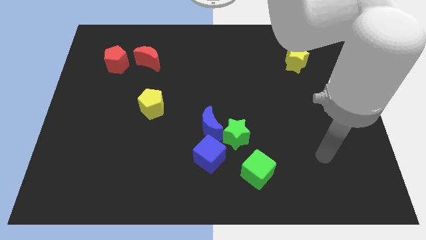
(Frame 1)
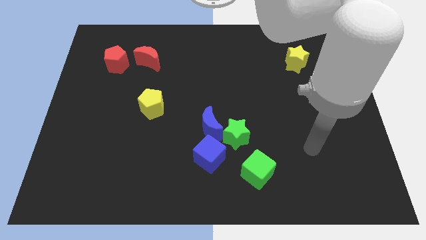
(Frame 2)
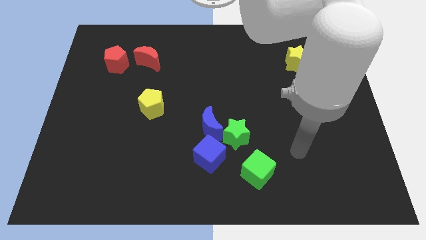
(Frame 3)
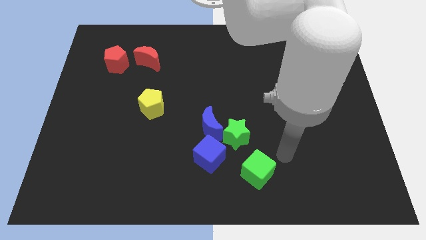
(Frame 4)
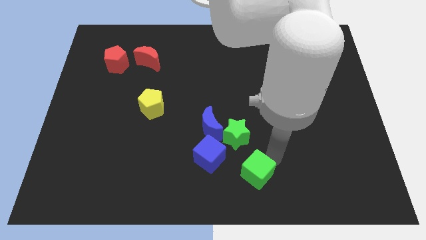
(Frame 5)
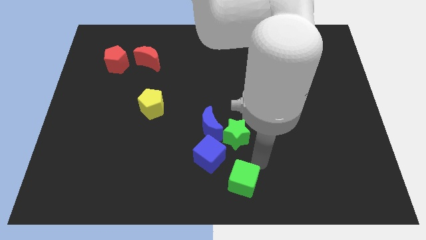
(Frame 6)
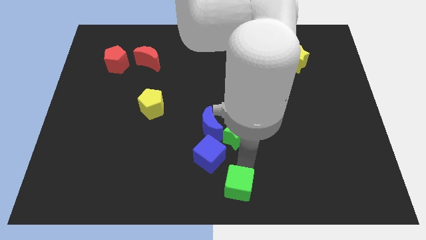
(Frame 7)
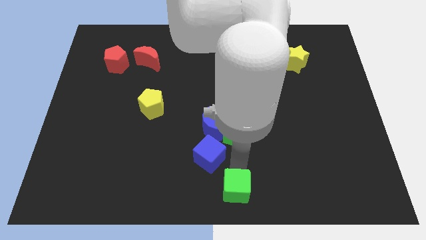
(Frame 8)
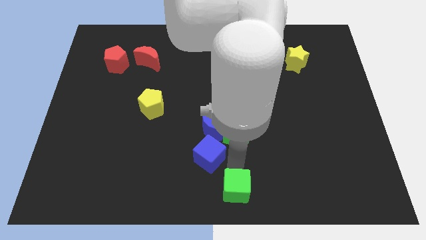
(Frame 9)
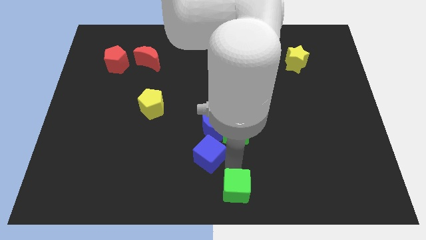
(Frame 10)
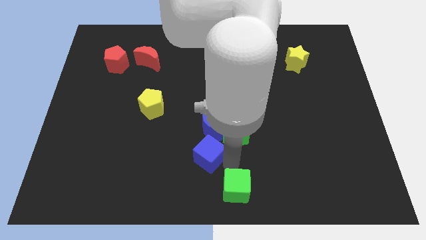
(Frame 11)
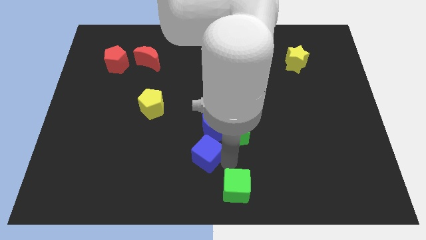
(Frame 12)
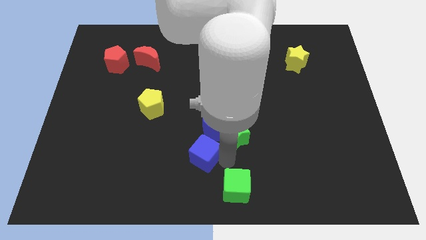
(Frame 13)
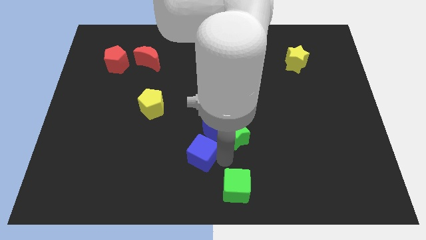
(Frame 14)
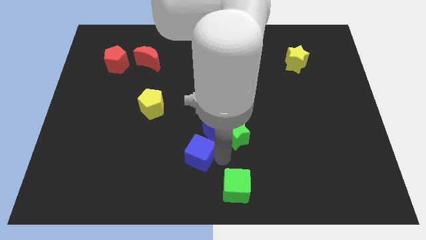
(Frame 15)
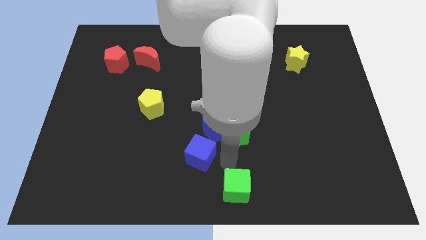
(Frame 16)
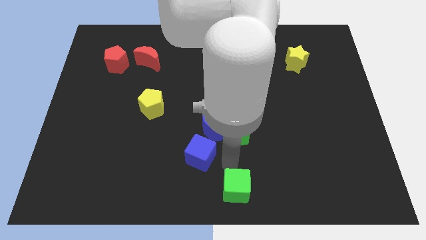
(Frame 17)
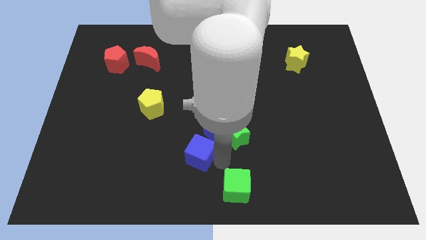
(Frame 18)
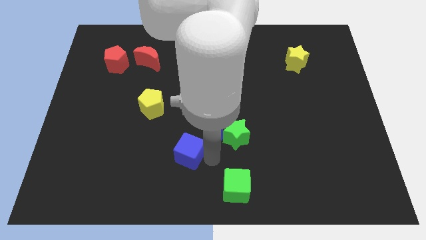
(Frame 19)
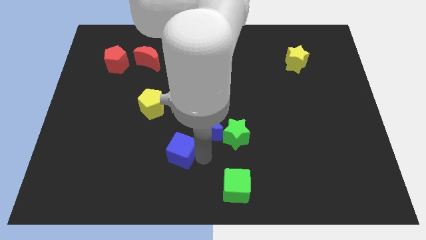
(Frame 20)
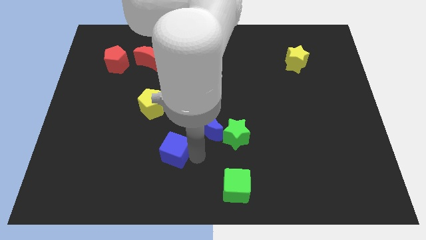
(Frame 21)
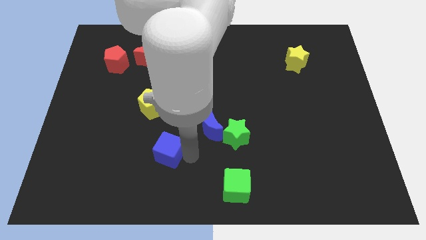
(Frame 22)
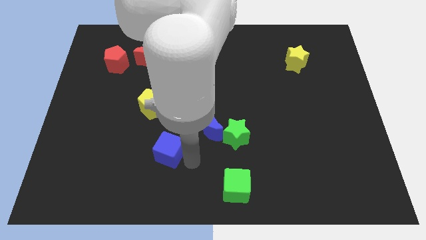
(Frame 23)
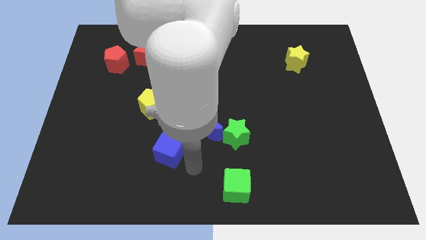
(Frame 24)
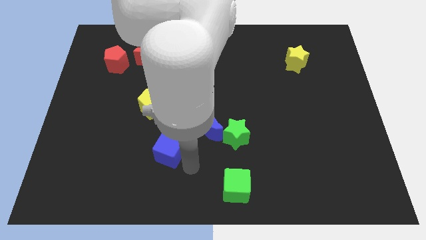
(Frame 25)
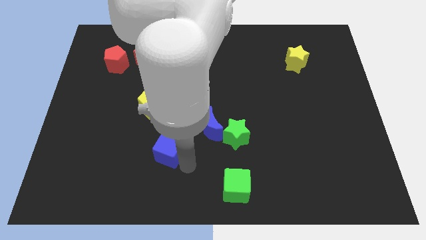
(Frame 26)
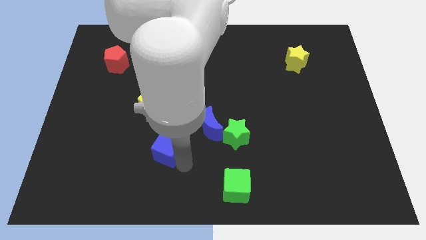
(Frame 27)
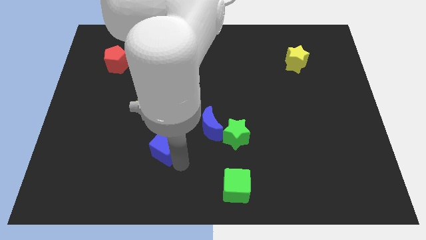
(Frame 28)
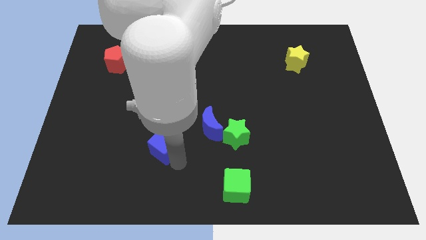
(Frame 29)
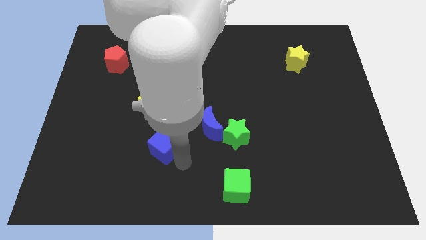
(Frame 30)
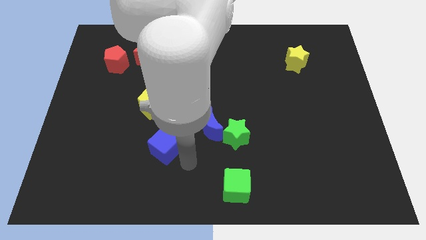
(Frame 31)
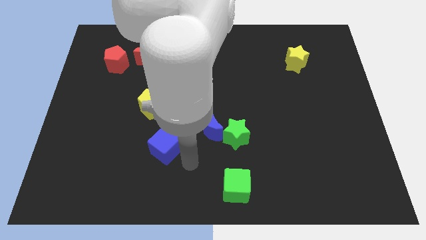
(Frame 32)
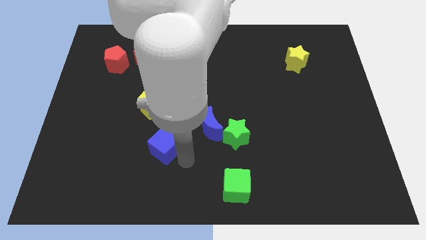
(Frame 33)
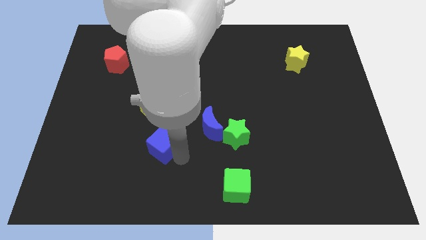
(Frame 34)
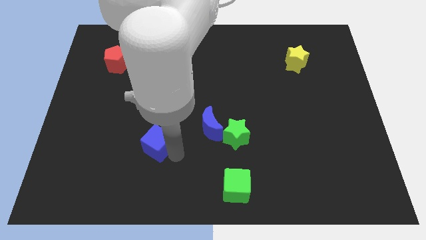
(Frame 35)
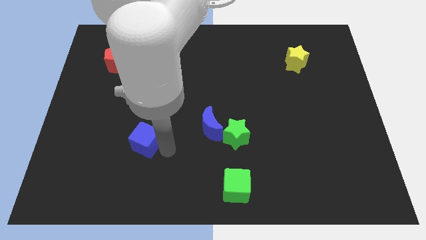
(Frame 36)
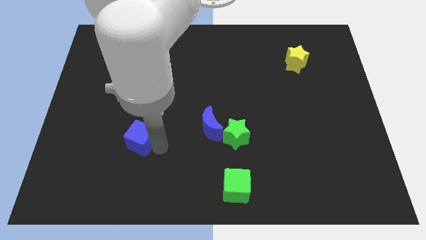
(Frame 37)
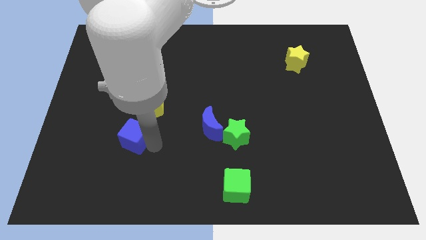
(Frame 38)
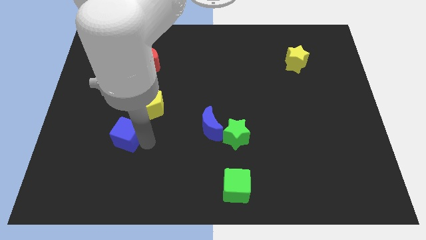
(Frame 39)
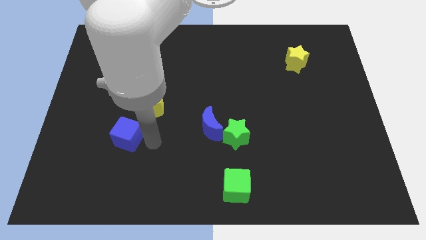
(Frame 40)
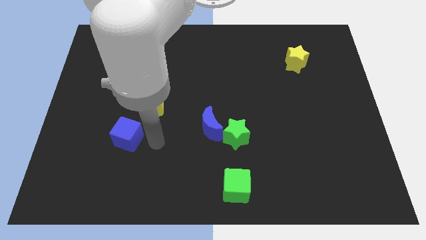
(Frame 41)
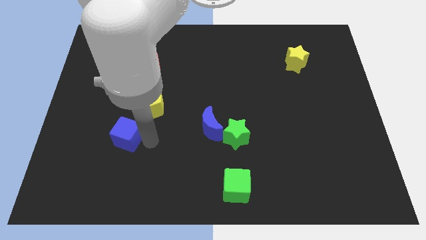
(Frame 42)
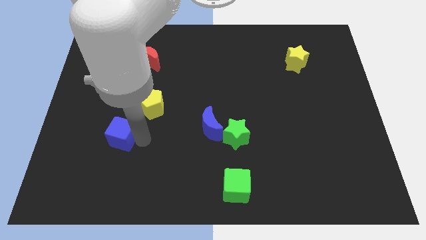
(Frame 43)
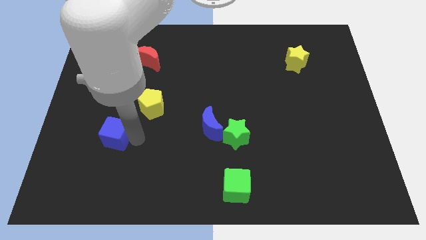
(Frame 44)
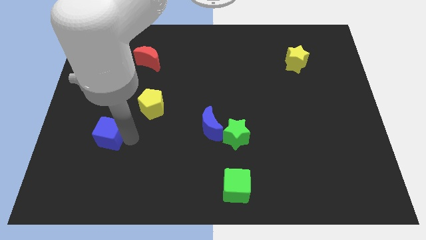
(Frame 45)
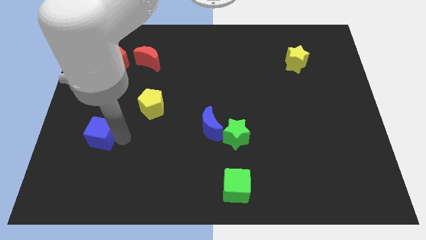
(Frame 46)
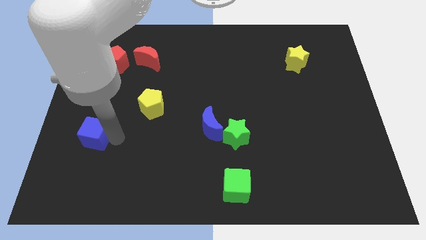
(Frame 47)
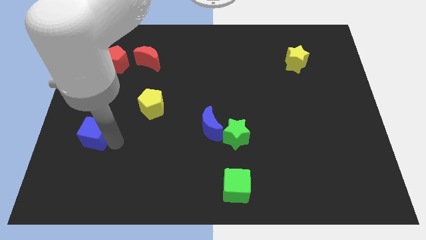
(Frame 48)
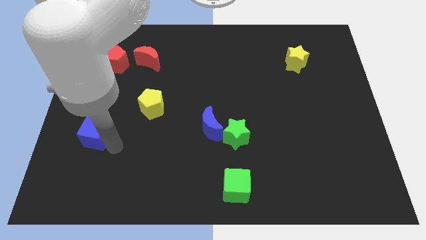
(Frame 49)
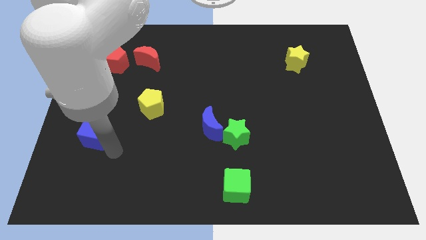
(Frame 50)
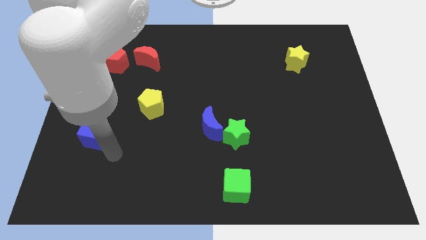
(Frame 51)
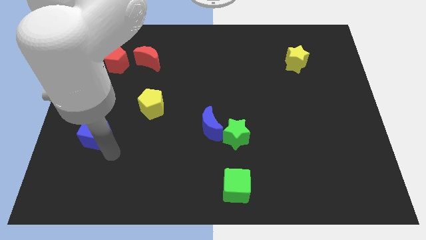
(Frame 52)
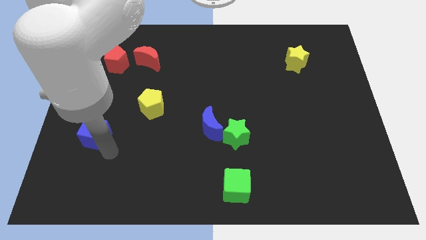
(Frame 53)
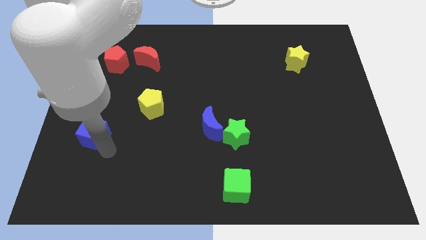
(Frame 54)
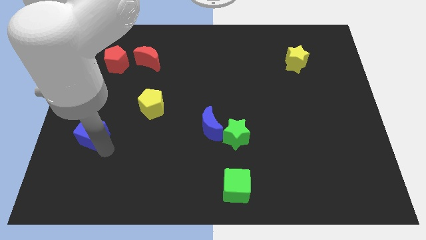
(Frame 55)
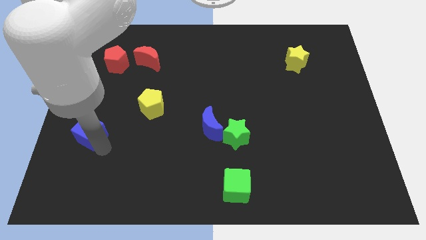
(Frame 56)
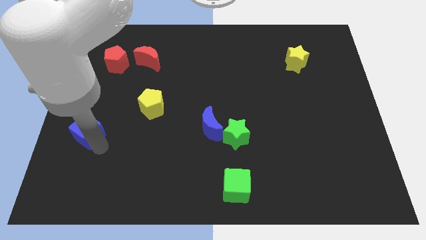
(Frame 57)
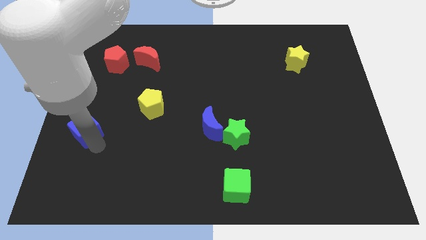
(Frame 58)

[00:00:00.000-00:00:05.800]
move the blue cube to the left side of the board

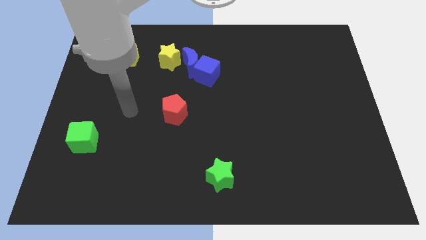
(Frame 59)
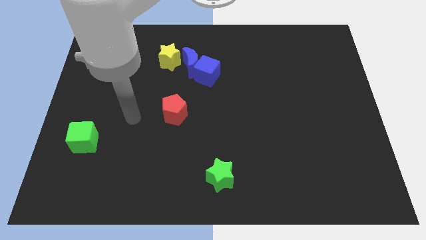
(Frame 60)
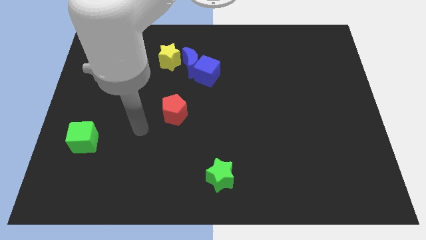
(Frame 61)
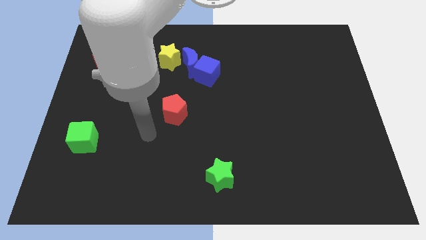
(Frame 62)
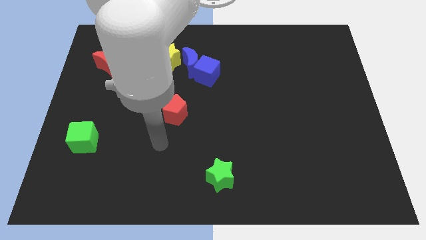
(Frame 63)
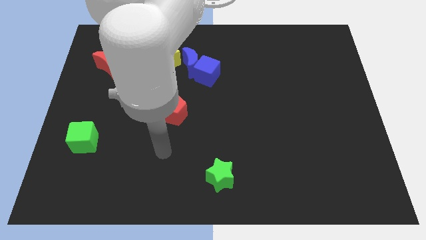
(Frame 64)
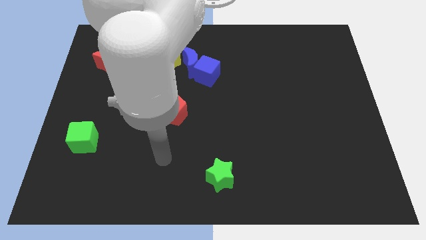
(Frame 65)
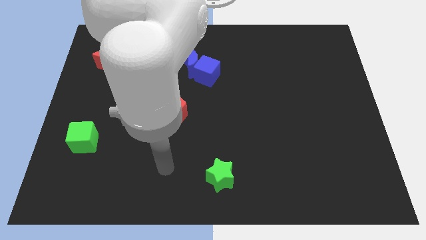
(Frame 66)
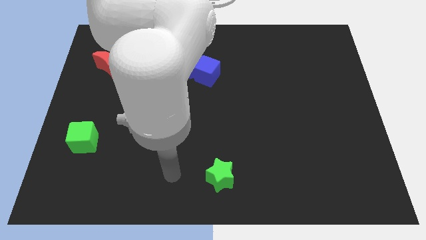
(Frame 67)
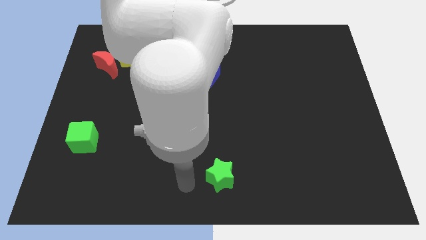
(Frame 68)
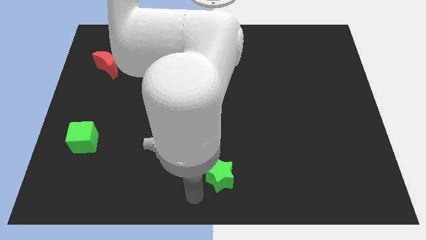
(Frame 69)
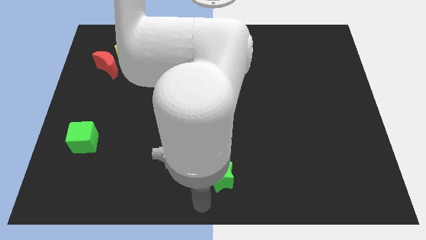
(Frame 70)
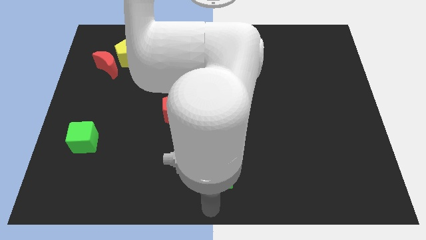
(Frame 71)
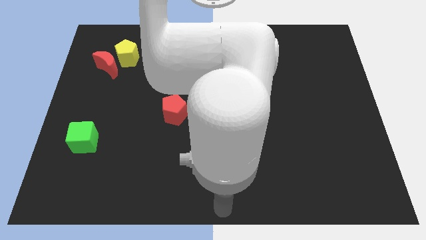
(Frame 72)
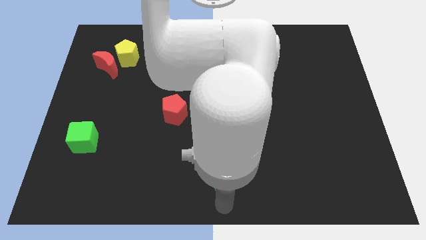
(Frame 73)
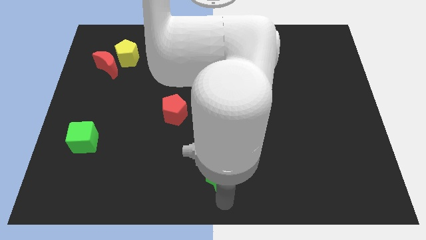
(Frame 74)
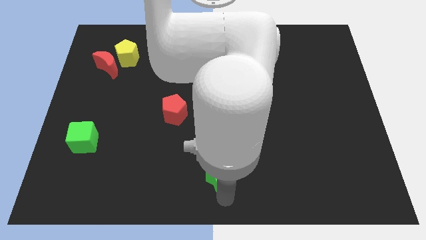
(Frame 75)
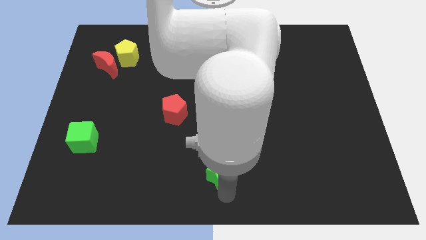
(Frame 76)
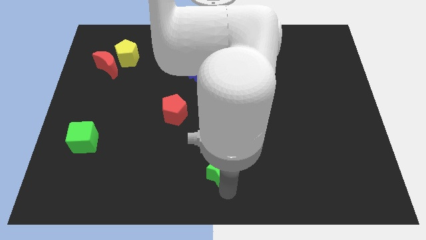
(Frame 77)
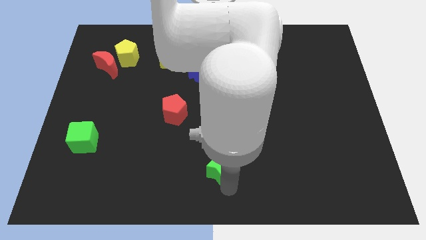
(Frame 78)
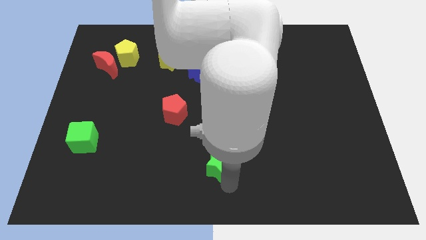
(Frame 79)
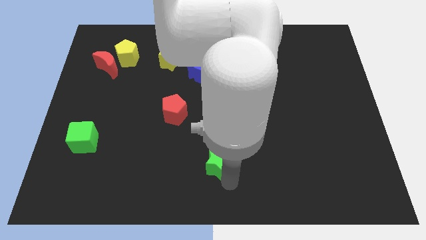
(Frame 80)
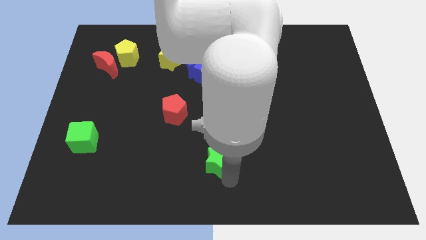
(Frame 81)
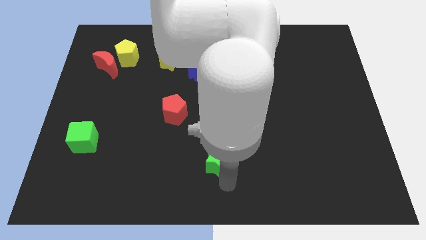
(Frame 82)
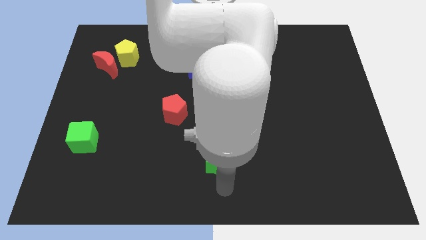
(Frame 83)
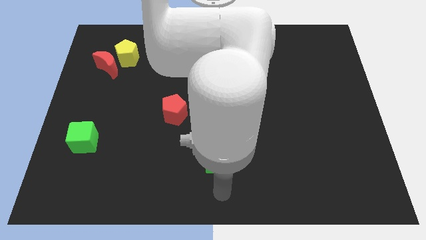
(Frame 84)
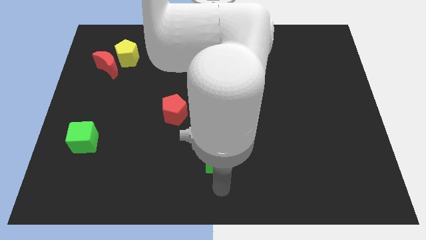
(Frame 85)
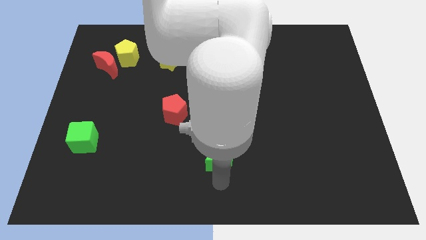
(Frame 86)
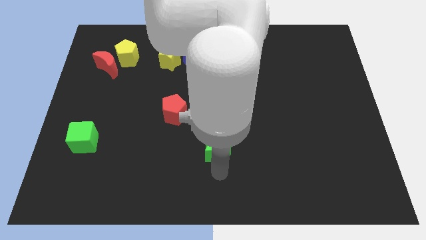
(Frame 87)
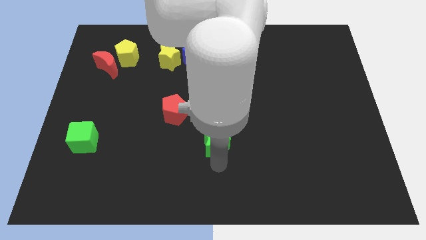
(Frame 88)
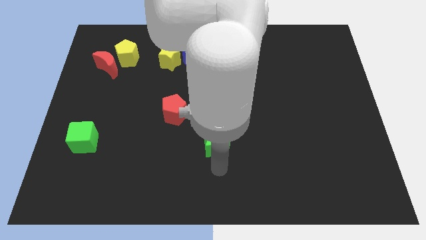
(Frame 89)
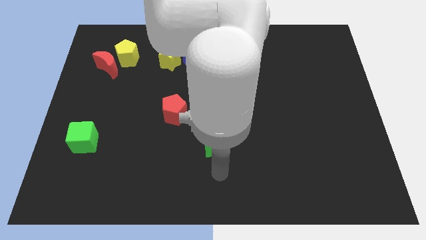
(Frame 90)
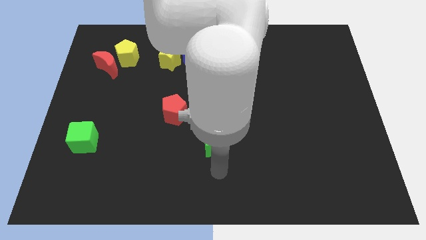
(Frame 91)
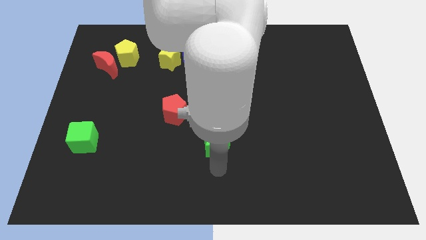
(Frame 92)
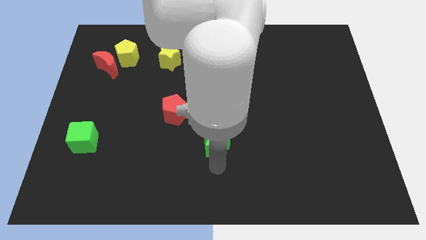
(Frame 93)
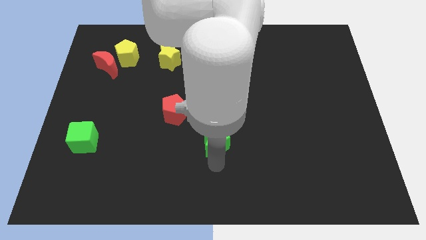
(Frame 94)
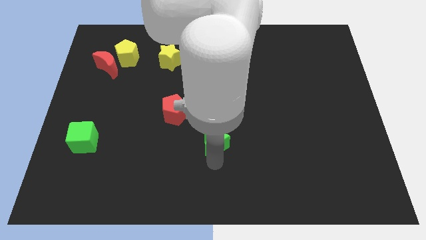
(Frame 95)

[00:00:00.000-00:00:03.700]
push the green star to the center of the board
